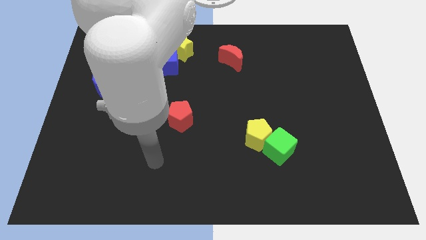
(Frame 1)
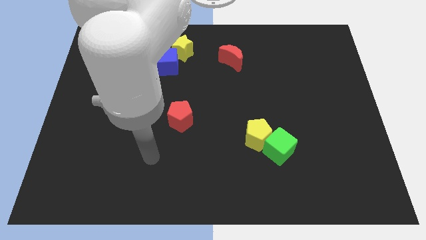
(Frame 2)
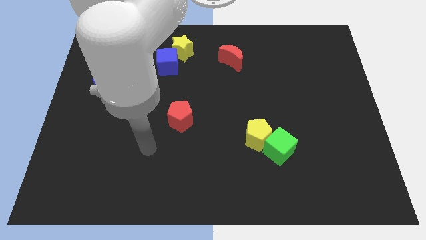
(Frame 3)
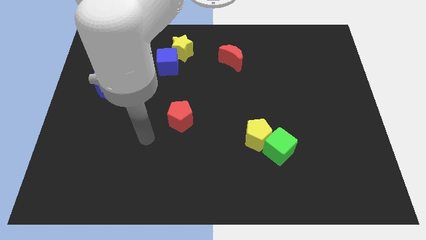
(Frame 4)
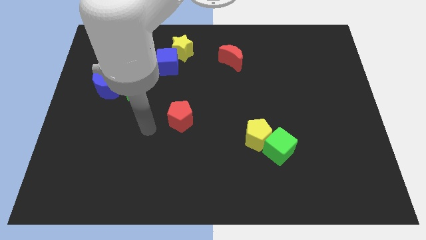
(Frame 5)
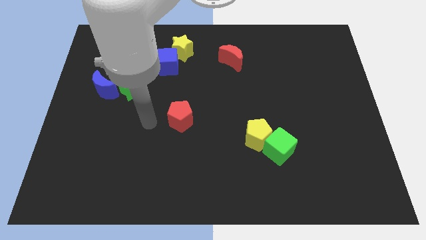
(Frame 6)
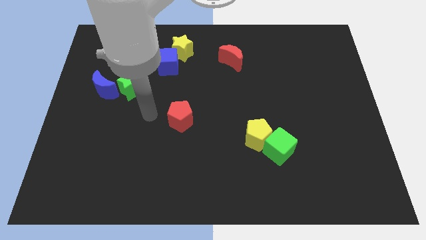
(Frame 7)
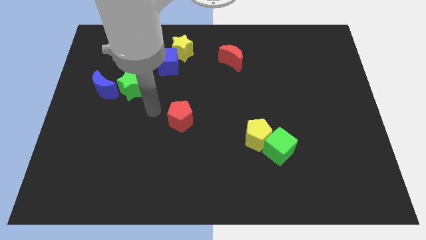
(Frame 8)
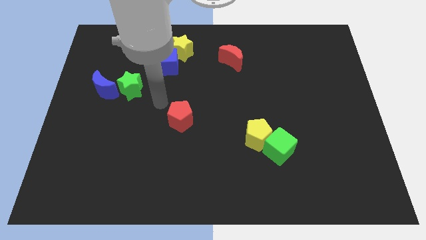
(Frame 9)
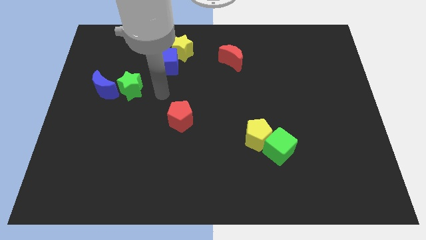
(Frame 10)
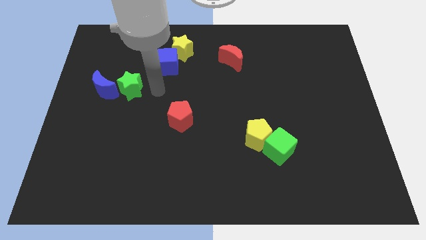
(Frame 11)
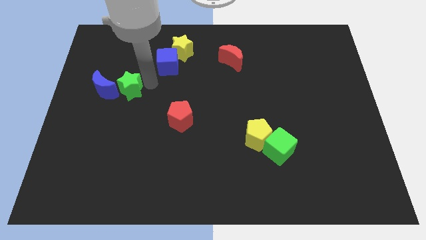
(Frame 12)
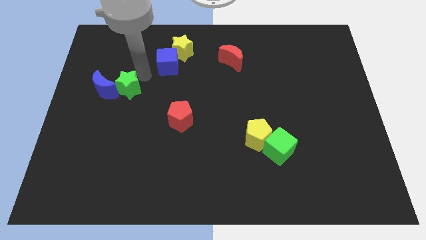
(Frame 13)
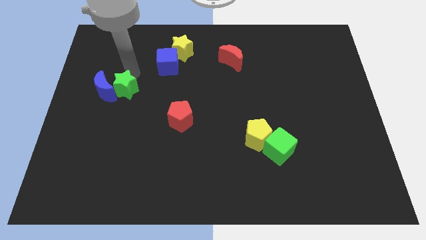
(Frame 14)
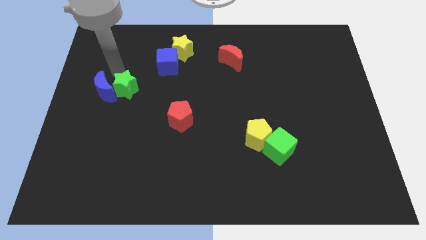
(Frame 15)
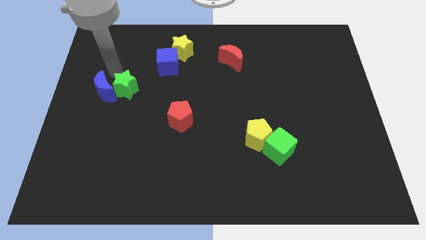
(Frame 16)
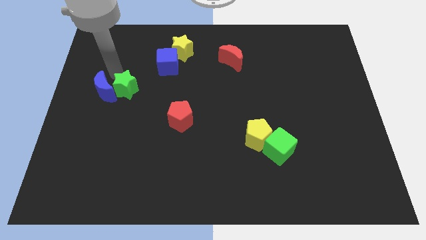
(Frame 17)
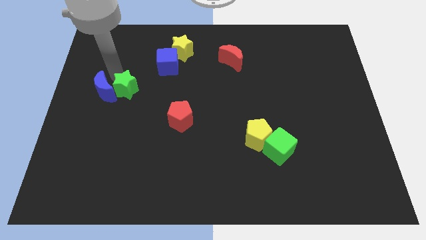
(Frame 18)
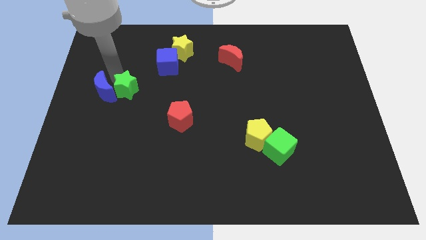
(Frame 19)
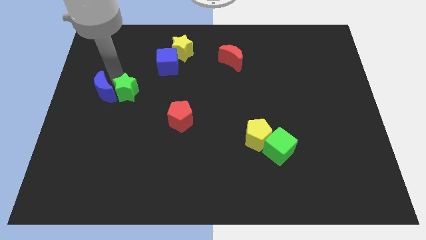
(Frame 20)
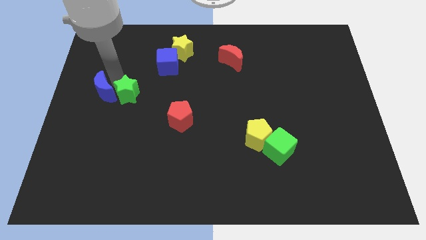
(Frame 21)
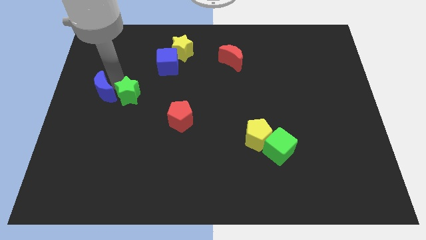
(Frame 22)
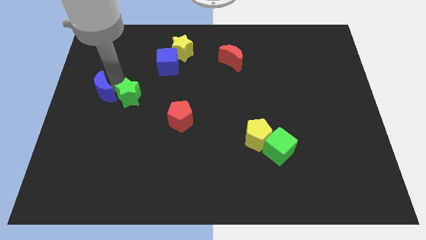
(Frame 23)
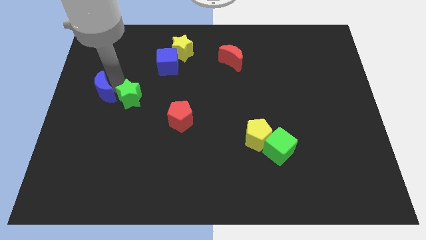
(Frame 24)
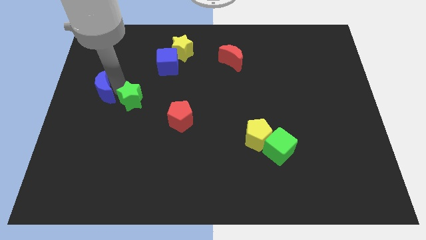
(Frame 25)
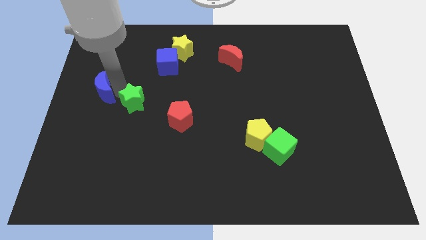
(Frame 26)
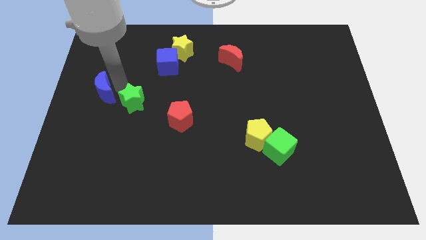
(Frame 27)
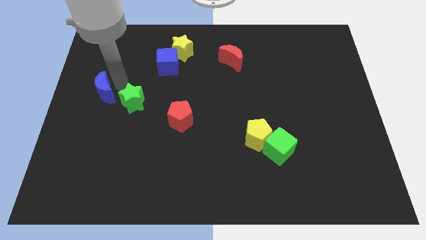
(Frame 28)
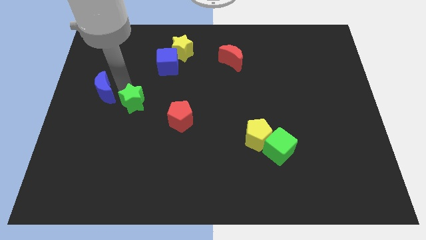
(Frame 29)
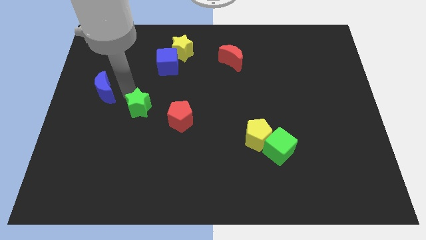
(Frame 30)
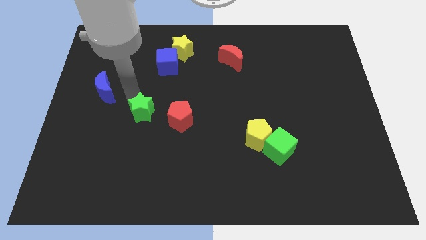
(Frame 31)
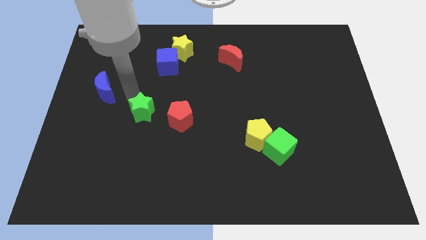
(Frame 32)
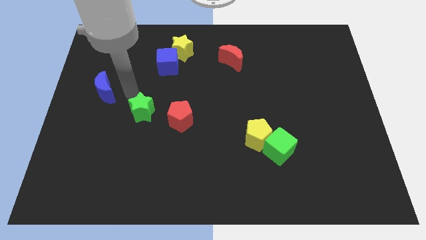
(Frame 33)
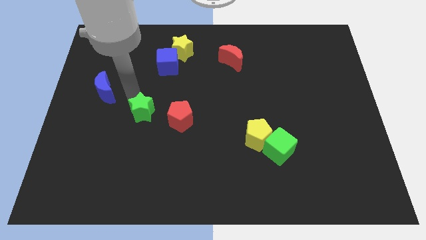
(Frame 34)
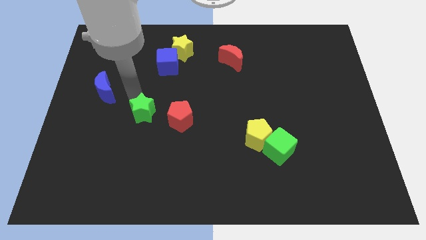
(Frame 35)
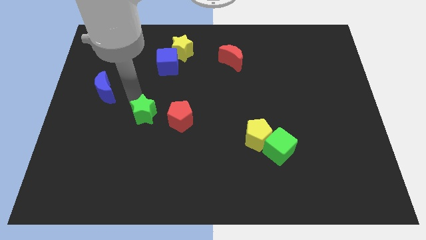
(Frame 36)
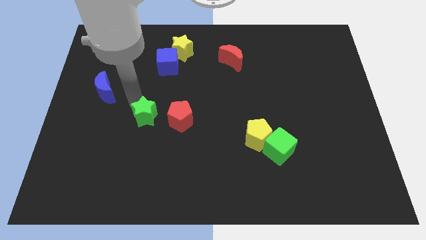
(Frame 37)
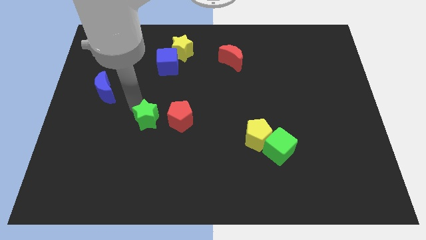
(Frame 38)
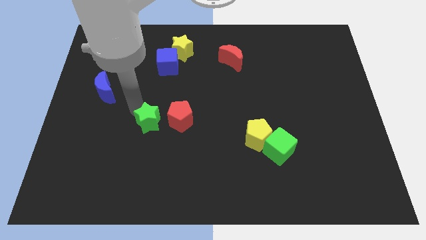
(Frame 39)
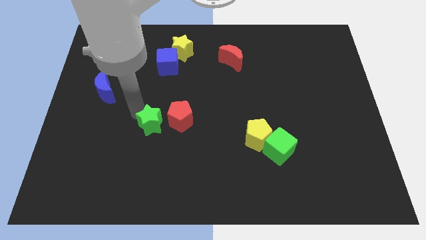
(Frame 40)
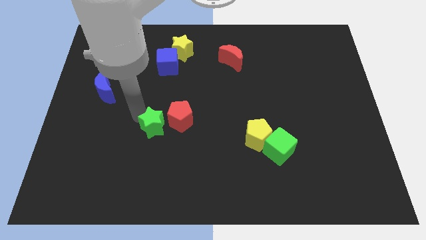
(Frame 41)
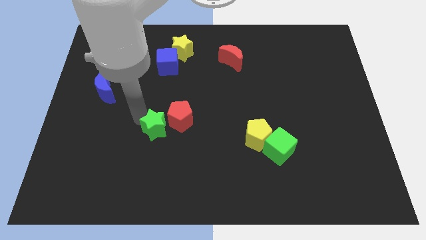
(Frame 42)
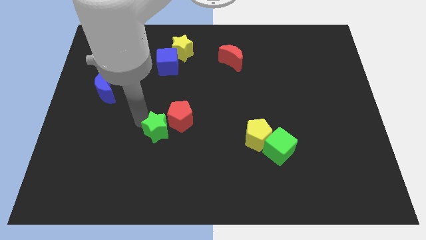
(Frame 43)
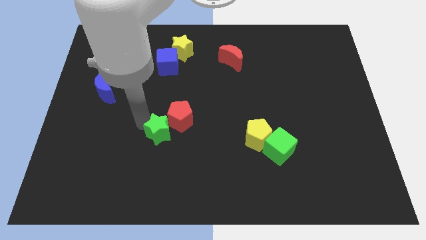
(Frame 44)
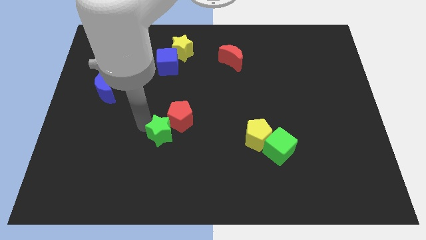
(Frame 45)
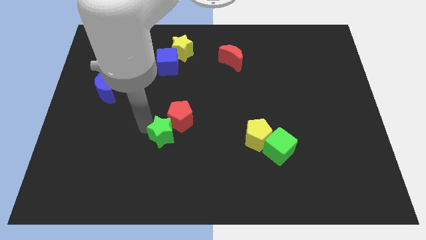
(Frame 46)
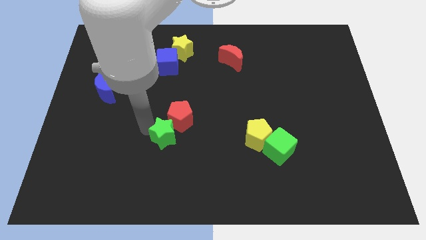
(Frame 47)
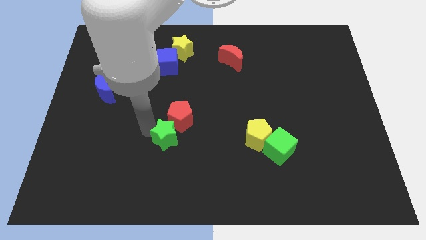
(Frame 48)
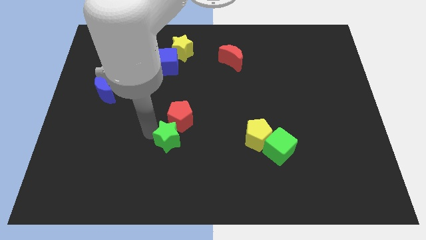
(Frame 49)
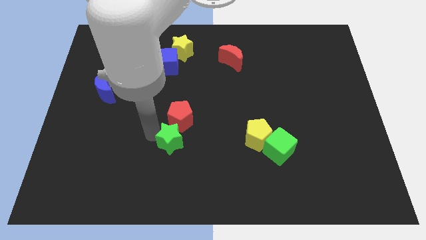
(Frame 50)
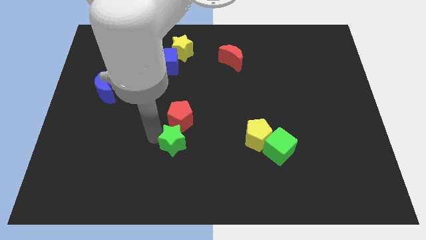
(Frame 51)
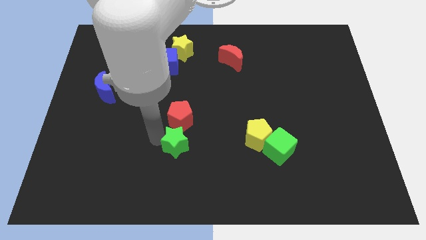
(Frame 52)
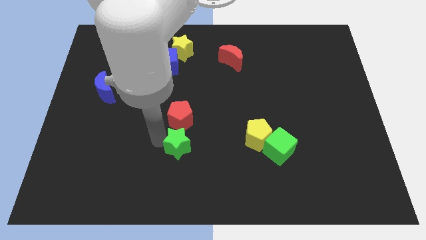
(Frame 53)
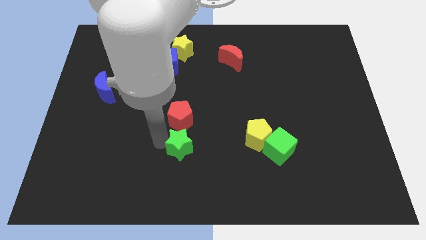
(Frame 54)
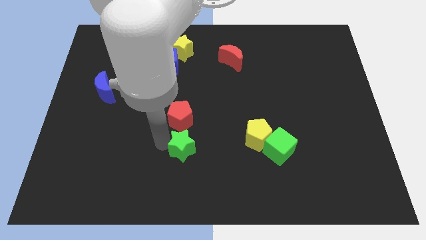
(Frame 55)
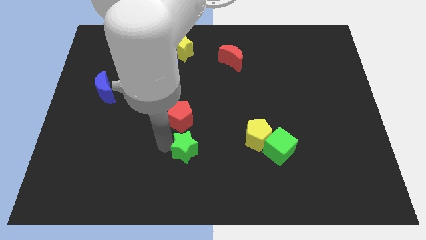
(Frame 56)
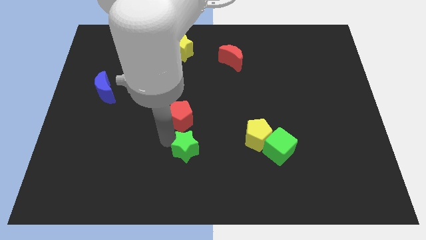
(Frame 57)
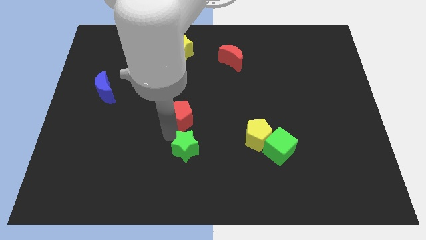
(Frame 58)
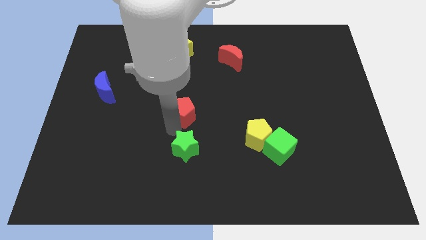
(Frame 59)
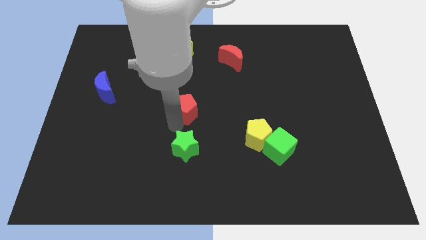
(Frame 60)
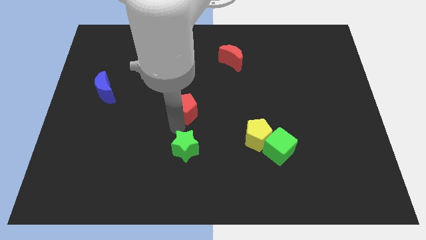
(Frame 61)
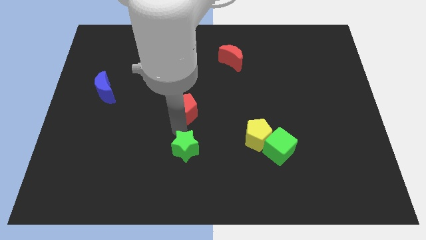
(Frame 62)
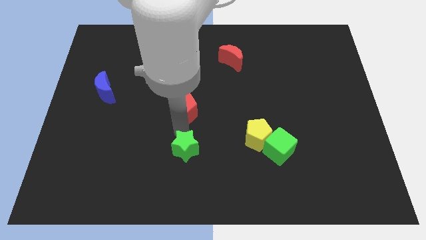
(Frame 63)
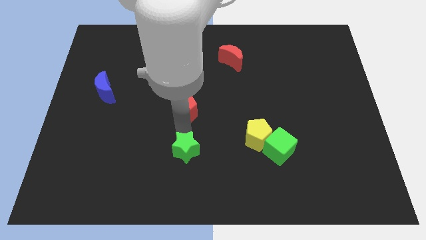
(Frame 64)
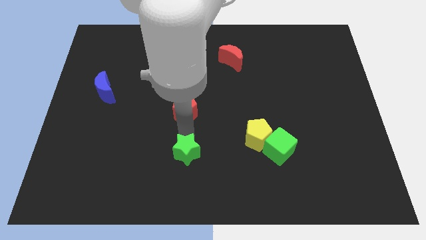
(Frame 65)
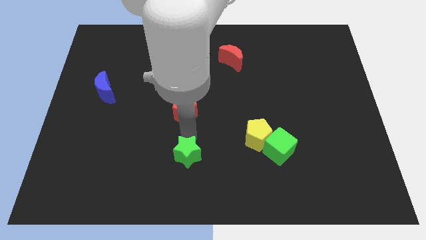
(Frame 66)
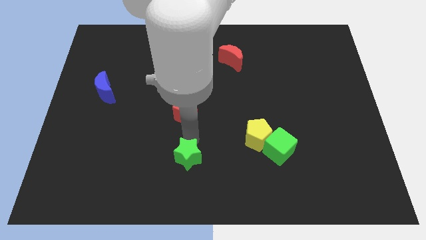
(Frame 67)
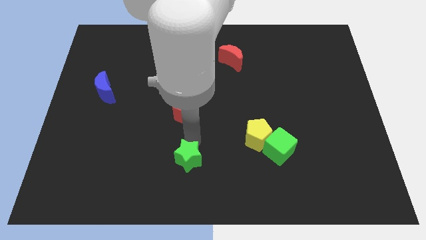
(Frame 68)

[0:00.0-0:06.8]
push the green star to the bottom
